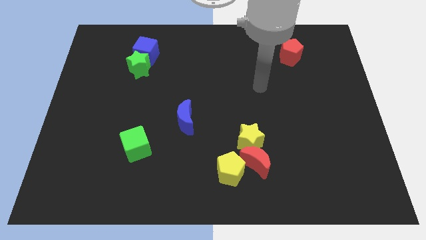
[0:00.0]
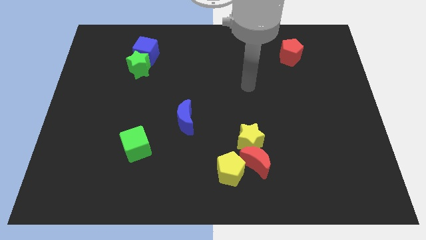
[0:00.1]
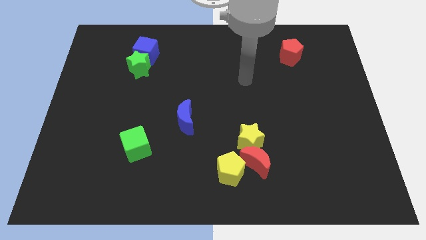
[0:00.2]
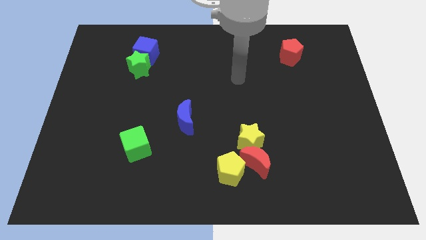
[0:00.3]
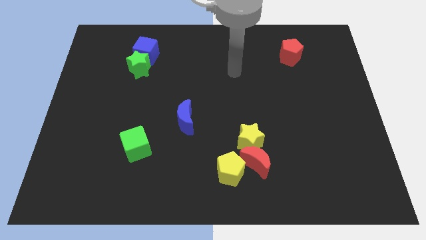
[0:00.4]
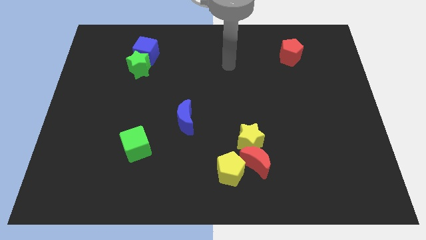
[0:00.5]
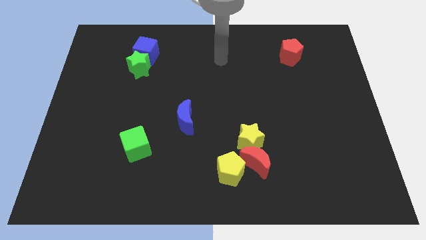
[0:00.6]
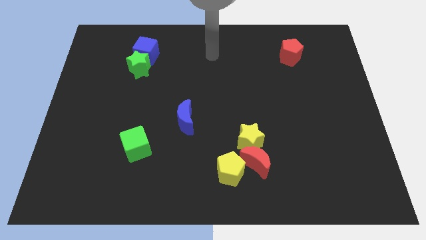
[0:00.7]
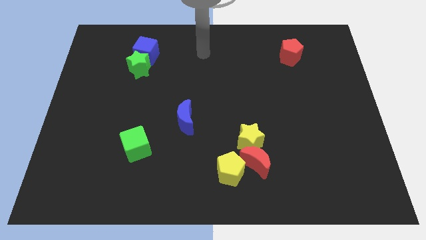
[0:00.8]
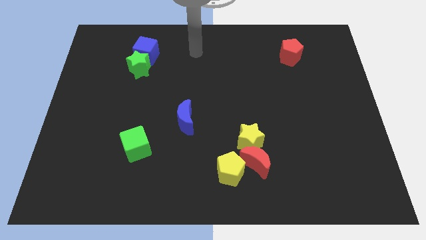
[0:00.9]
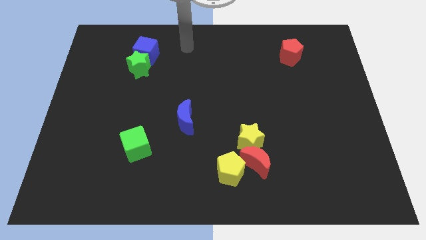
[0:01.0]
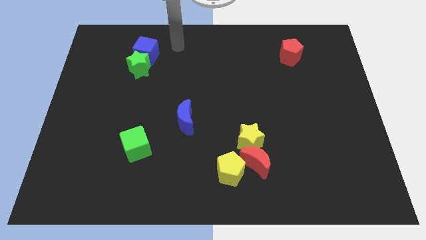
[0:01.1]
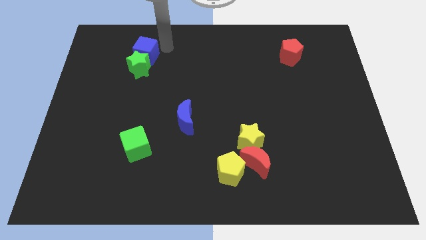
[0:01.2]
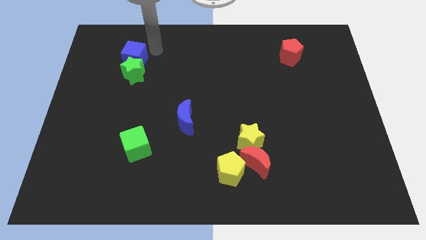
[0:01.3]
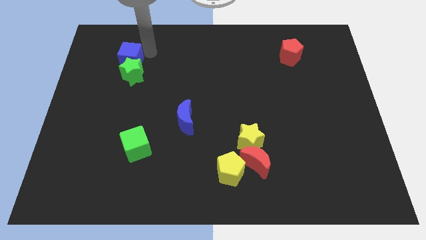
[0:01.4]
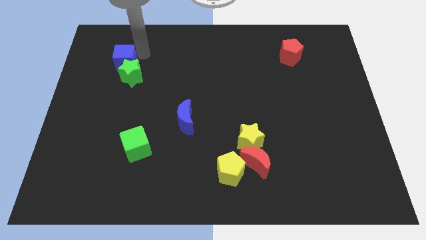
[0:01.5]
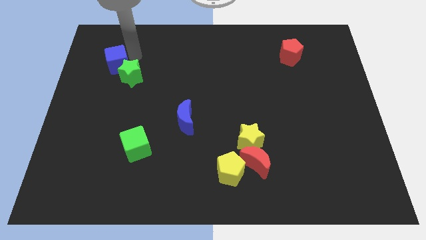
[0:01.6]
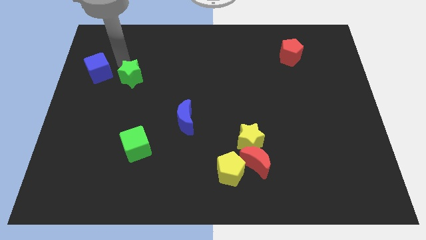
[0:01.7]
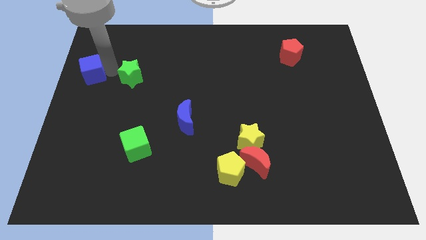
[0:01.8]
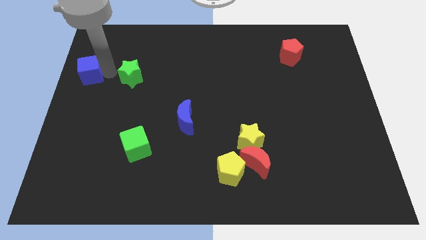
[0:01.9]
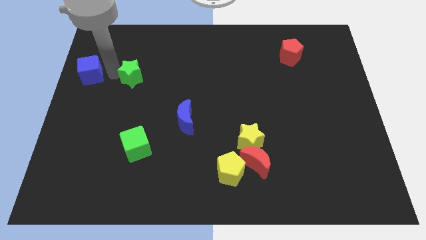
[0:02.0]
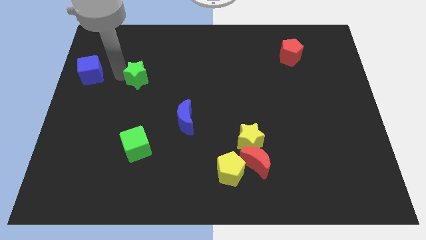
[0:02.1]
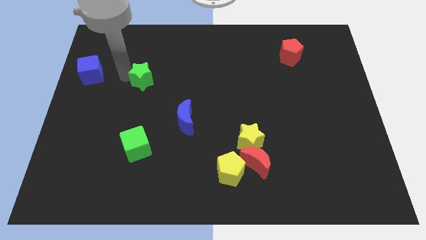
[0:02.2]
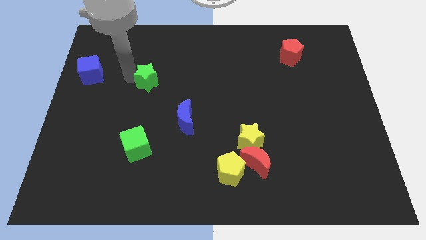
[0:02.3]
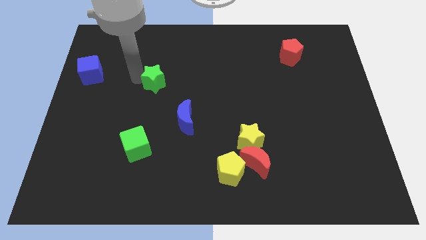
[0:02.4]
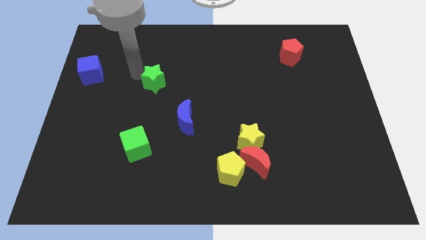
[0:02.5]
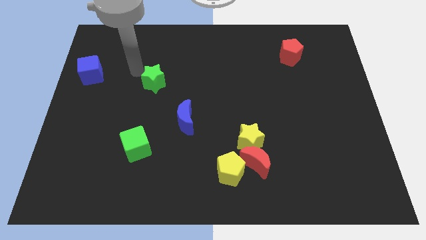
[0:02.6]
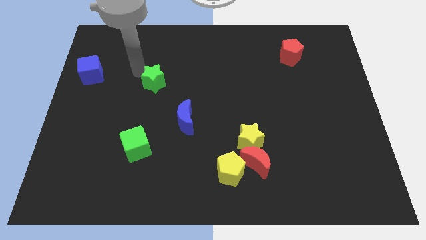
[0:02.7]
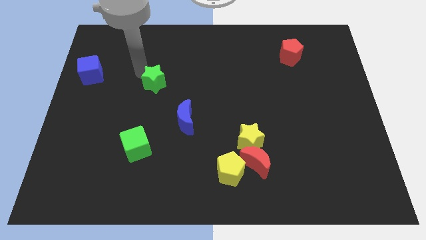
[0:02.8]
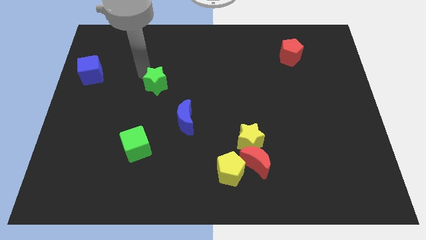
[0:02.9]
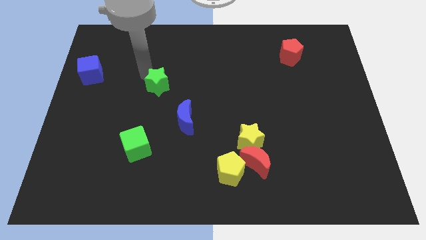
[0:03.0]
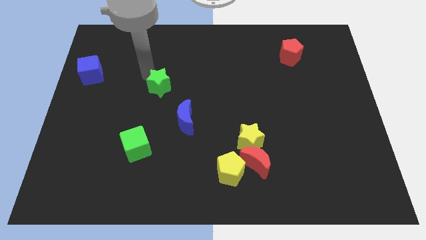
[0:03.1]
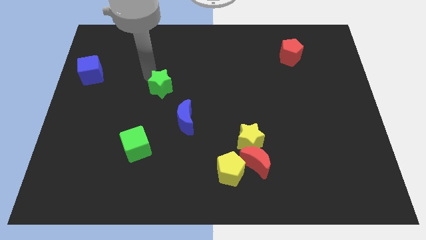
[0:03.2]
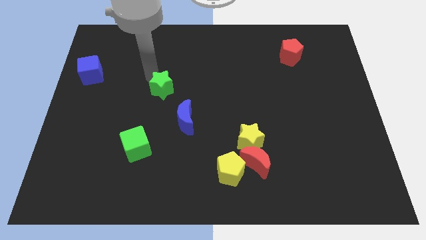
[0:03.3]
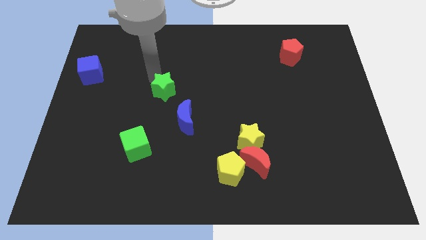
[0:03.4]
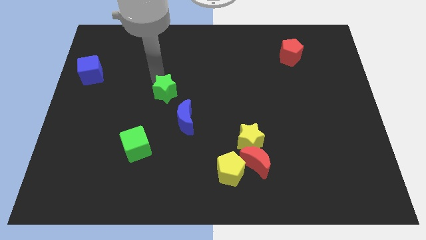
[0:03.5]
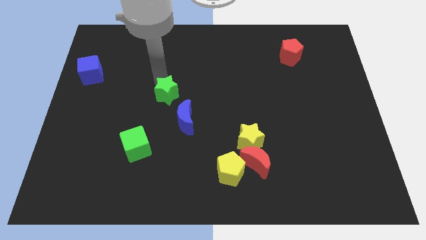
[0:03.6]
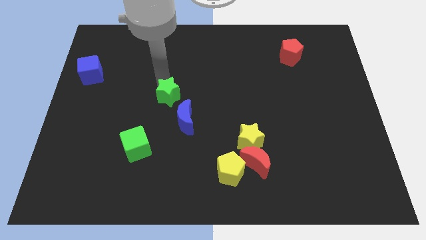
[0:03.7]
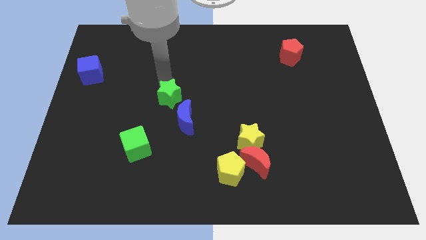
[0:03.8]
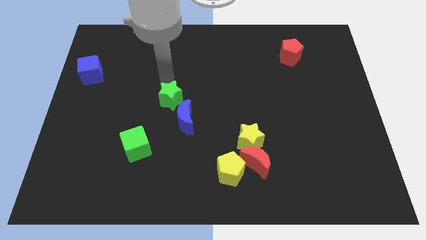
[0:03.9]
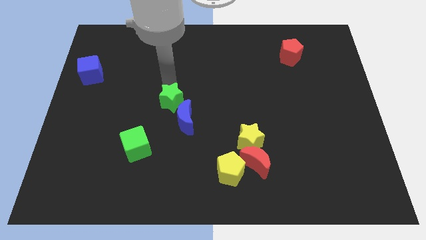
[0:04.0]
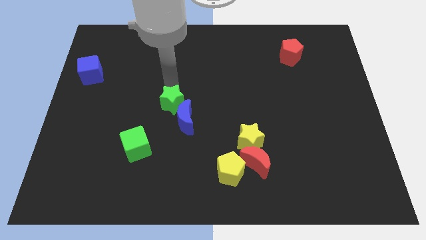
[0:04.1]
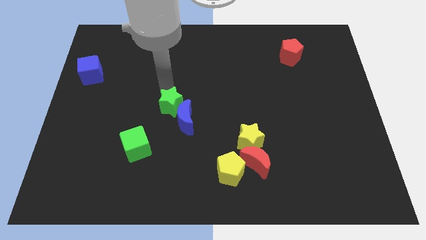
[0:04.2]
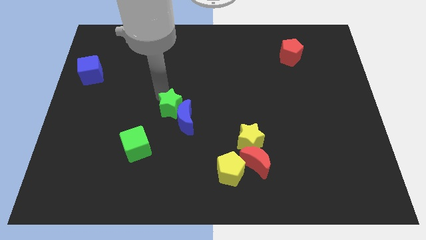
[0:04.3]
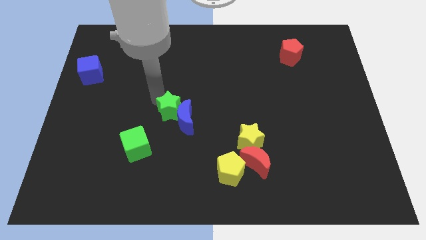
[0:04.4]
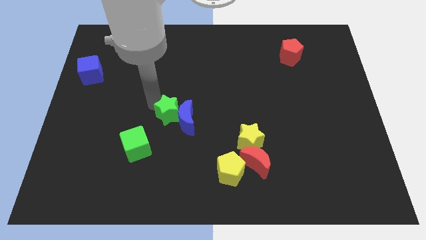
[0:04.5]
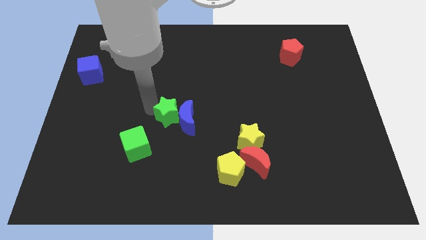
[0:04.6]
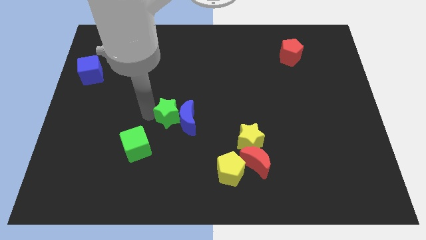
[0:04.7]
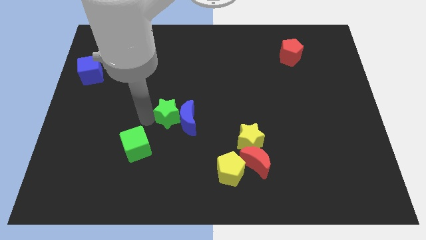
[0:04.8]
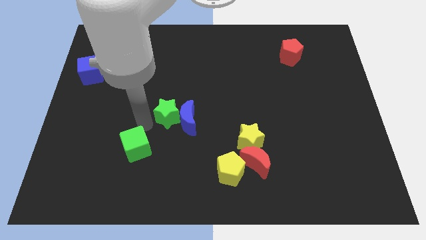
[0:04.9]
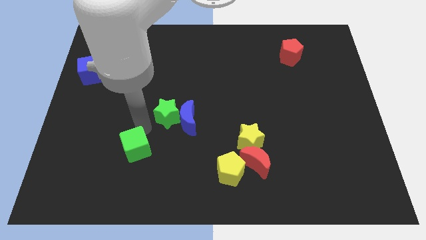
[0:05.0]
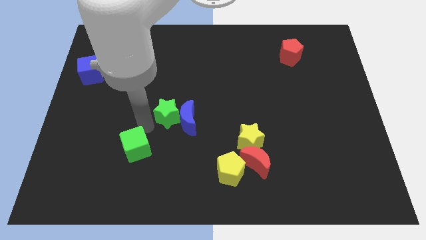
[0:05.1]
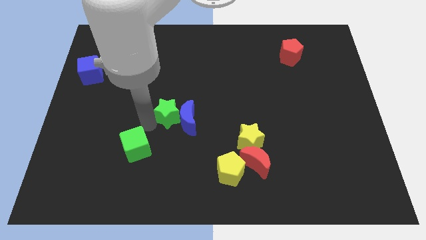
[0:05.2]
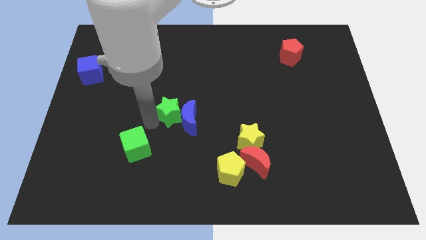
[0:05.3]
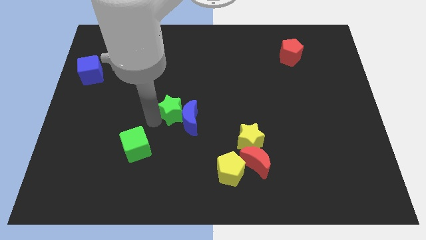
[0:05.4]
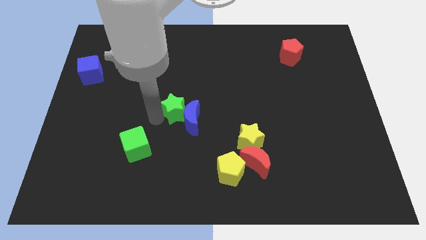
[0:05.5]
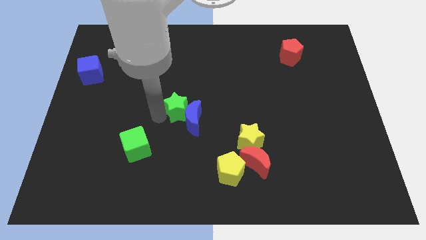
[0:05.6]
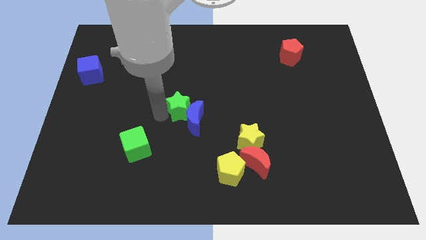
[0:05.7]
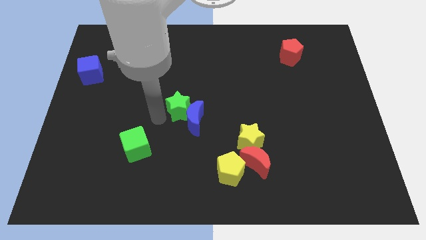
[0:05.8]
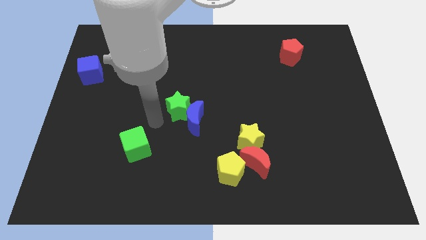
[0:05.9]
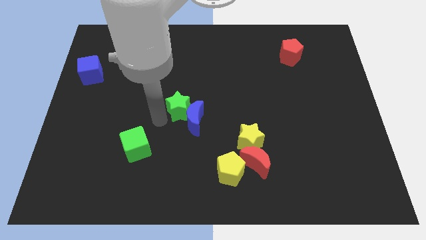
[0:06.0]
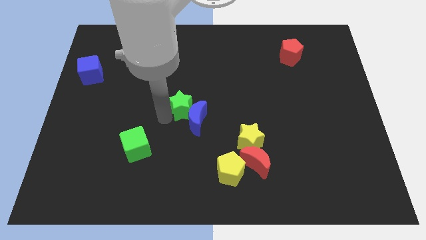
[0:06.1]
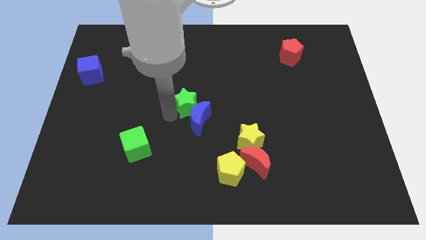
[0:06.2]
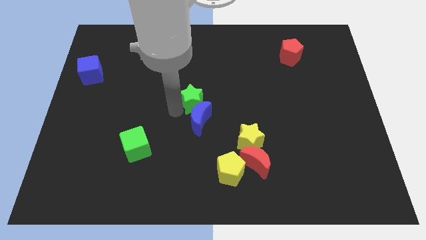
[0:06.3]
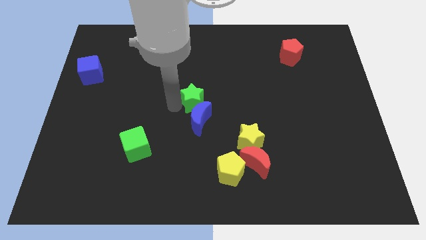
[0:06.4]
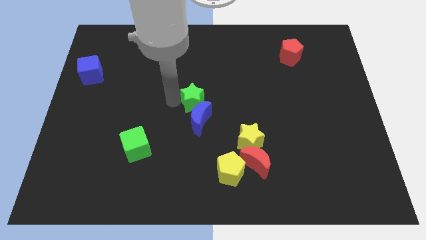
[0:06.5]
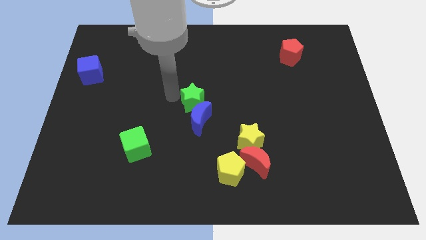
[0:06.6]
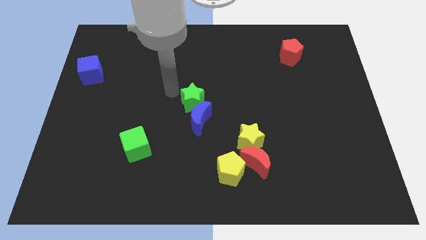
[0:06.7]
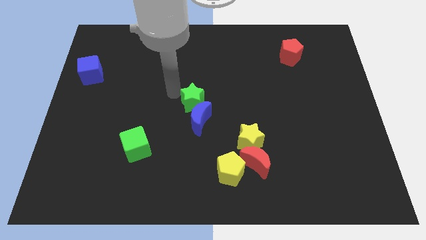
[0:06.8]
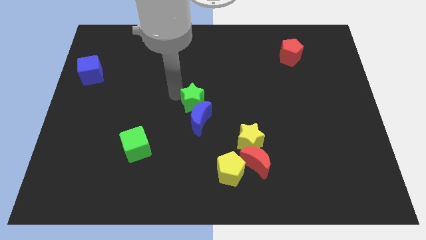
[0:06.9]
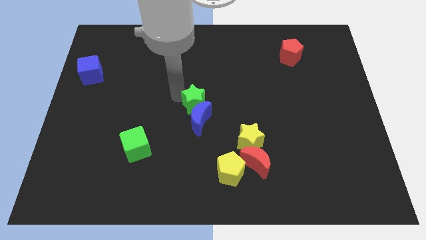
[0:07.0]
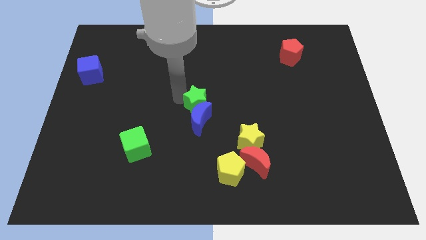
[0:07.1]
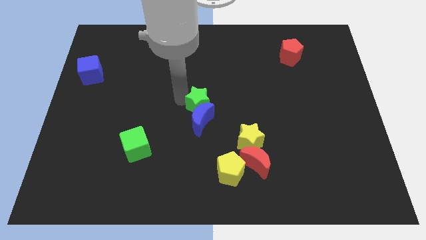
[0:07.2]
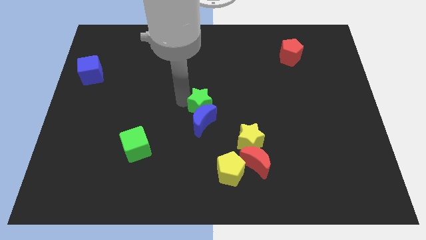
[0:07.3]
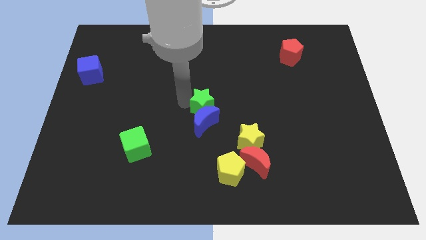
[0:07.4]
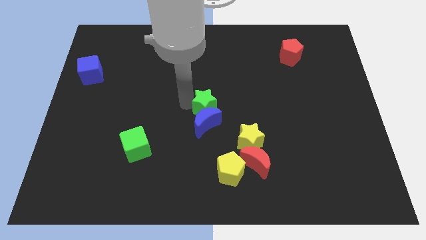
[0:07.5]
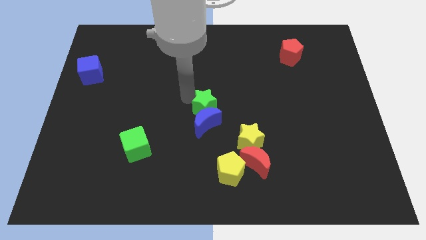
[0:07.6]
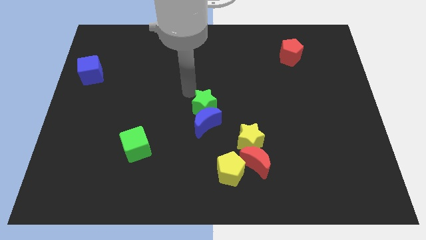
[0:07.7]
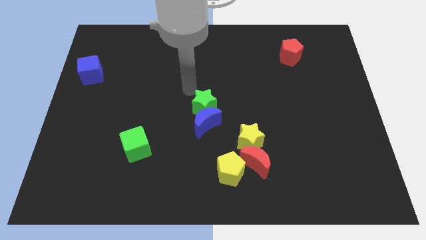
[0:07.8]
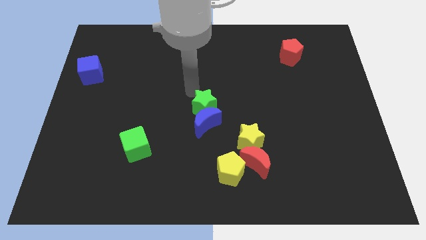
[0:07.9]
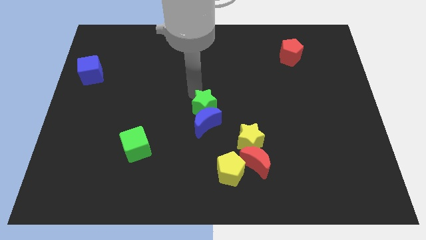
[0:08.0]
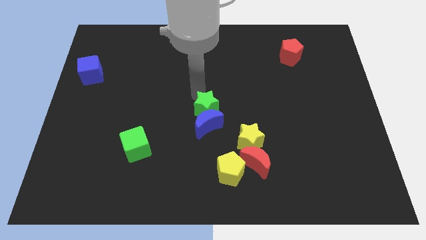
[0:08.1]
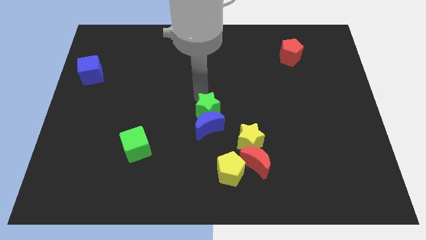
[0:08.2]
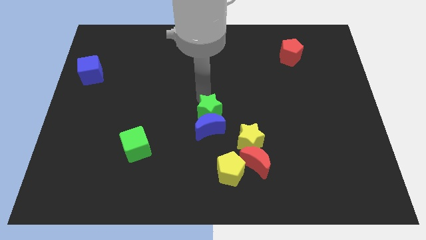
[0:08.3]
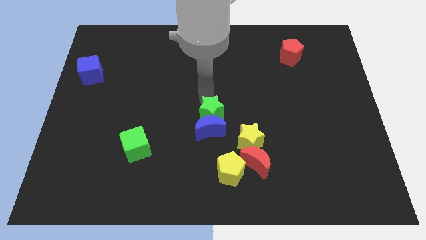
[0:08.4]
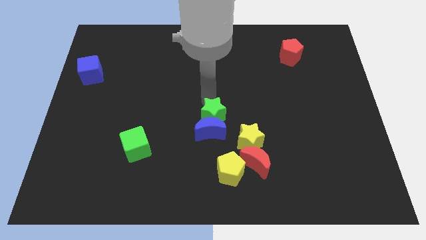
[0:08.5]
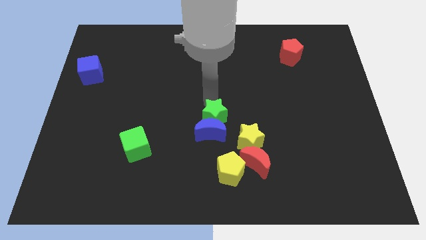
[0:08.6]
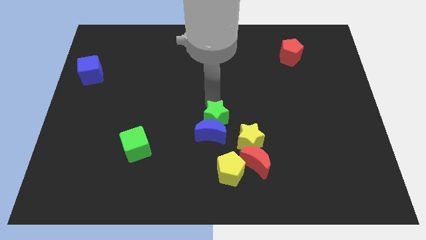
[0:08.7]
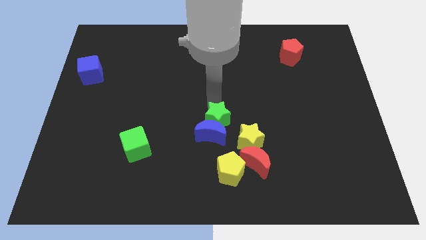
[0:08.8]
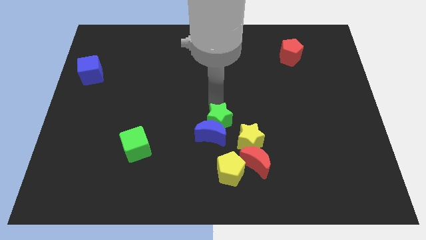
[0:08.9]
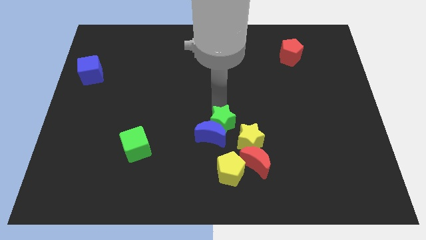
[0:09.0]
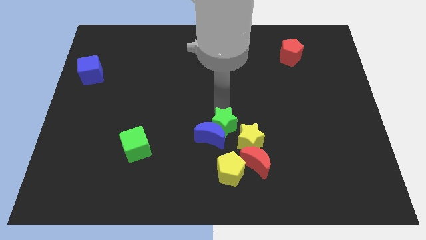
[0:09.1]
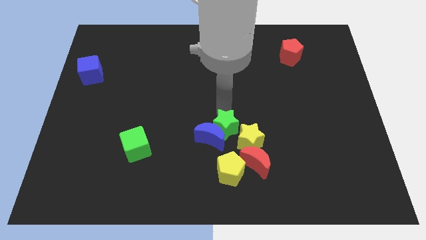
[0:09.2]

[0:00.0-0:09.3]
slide the green star towards the yellow star
